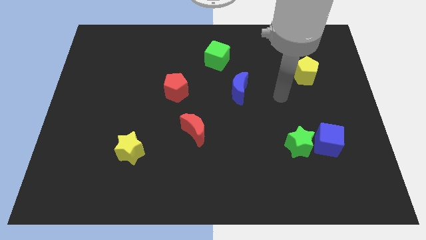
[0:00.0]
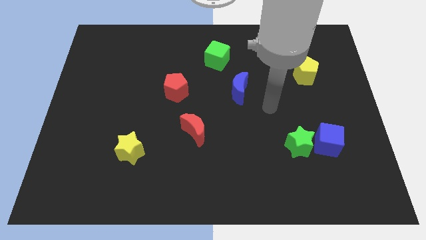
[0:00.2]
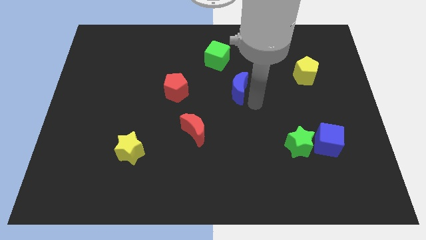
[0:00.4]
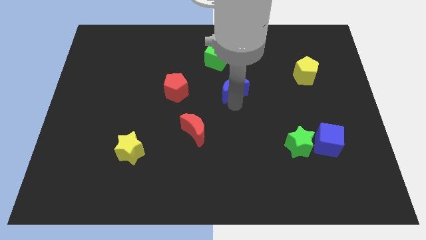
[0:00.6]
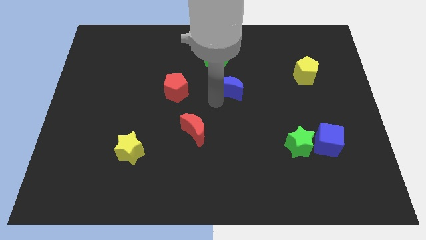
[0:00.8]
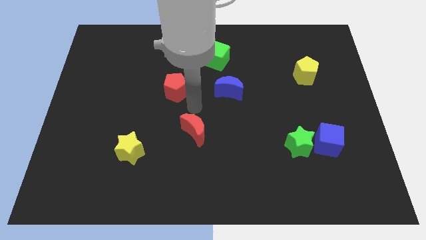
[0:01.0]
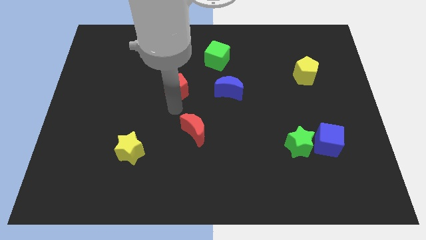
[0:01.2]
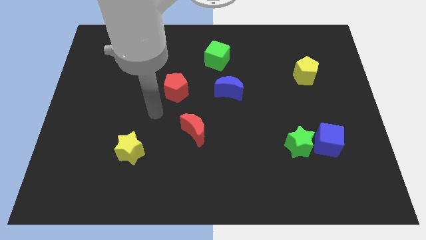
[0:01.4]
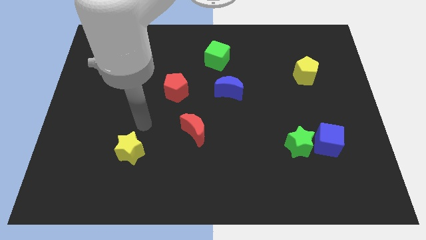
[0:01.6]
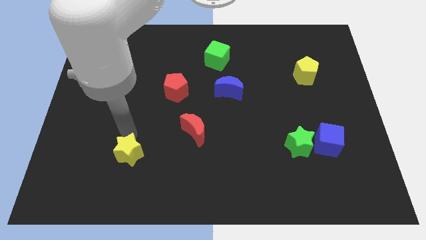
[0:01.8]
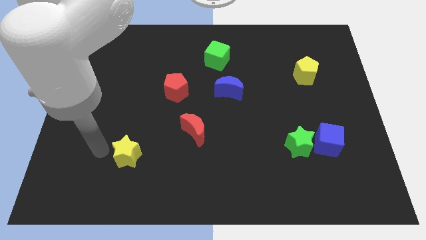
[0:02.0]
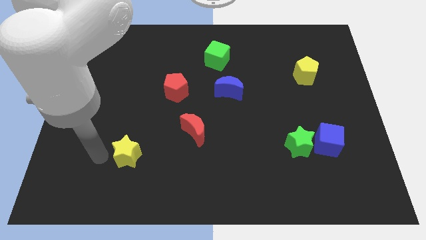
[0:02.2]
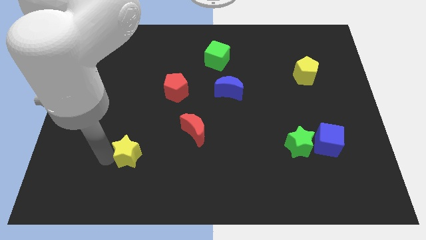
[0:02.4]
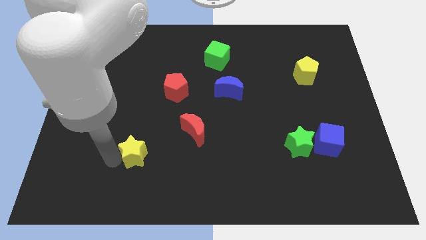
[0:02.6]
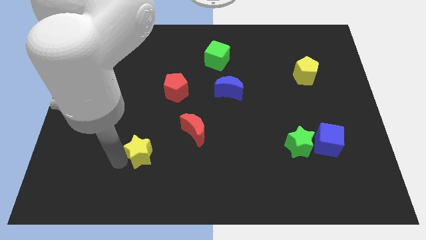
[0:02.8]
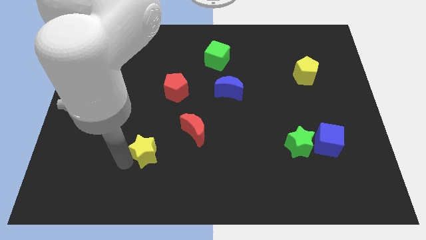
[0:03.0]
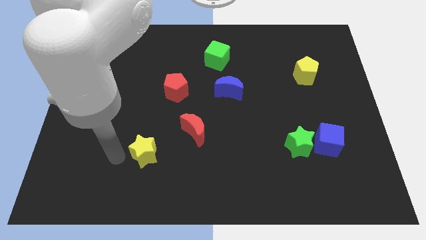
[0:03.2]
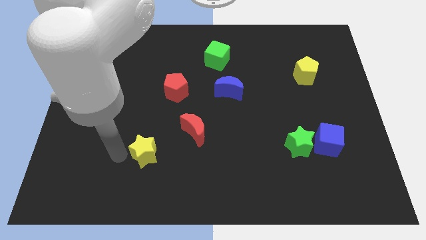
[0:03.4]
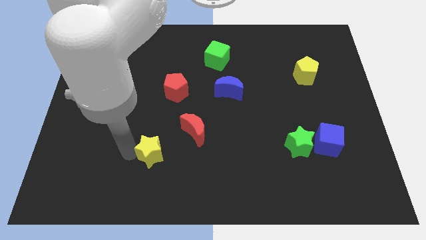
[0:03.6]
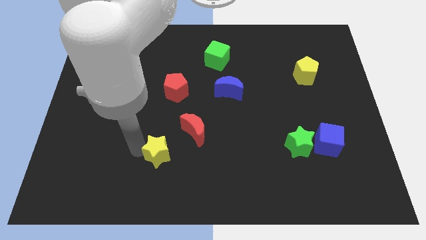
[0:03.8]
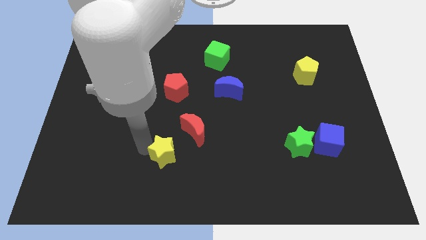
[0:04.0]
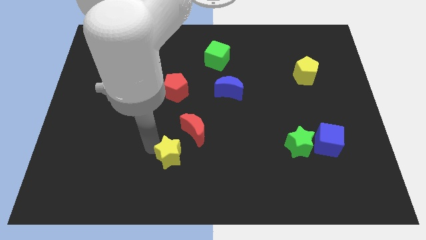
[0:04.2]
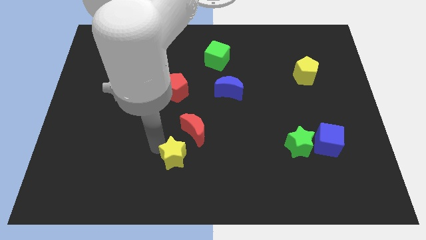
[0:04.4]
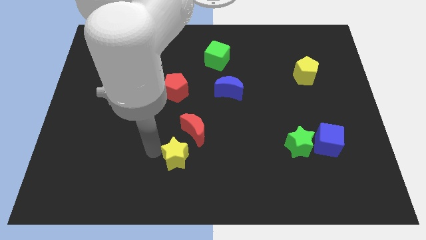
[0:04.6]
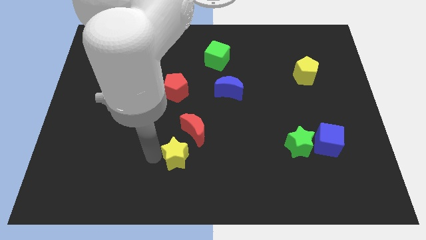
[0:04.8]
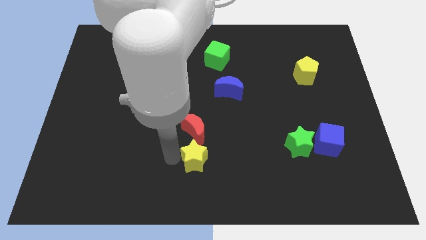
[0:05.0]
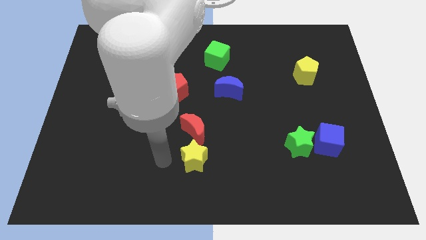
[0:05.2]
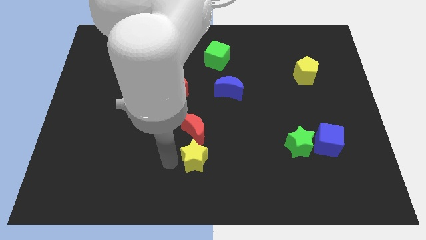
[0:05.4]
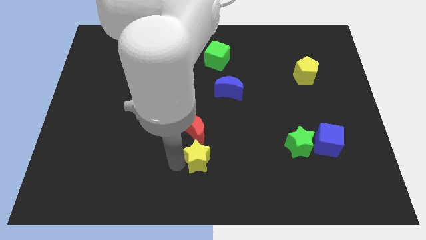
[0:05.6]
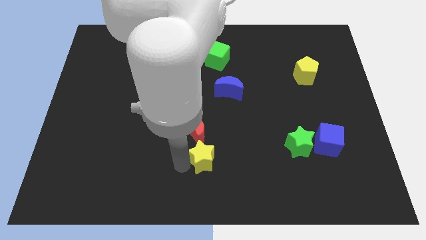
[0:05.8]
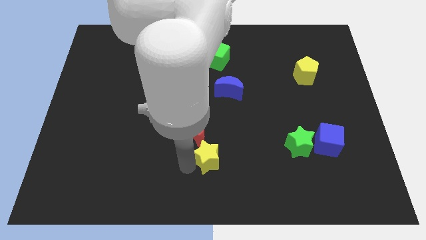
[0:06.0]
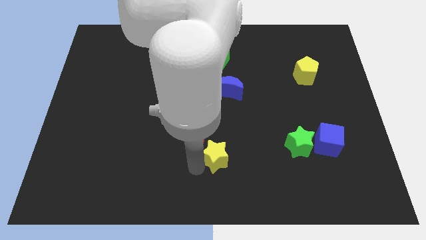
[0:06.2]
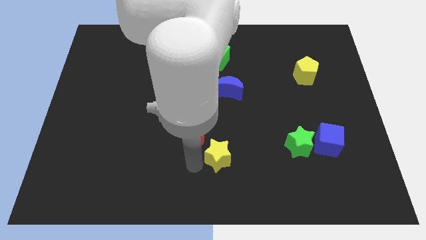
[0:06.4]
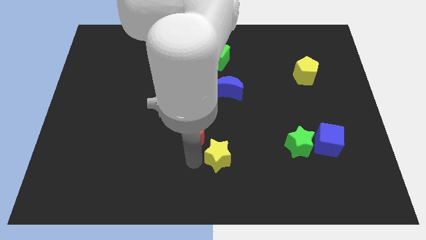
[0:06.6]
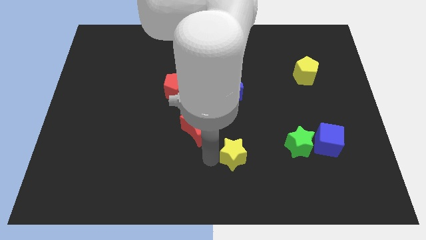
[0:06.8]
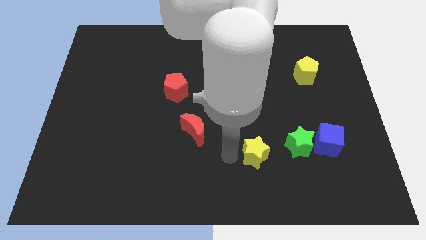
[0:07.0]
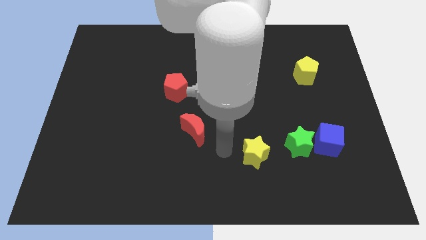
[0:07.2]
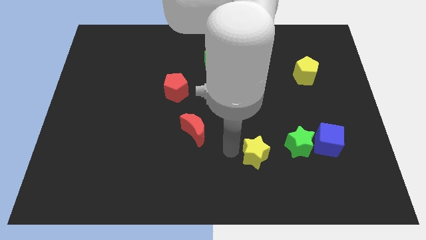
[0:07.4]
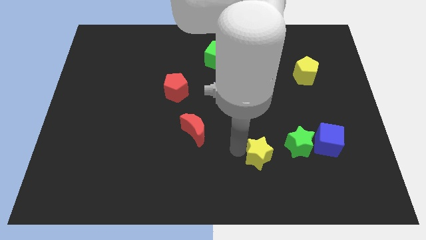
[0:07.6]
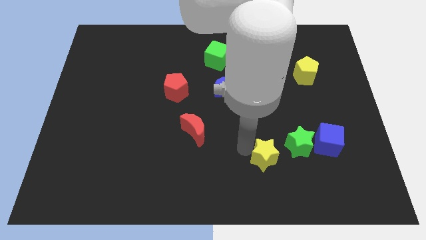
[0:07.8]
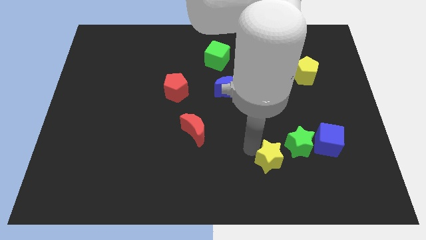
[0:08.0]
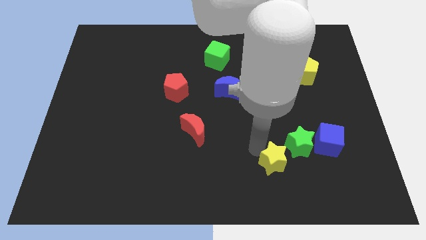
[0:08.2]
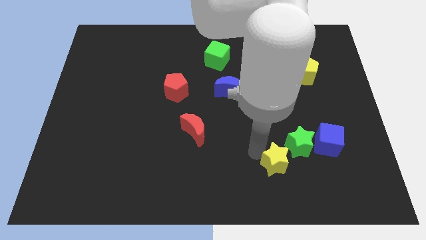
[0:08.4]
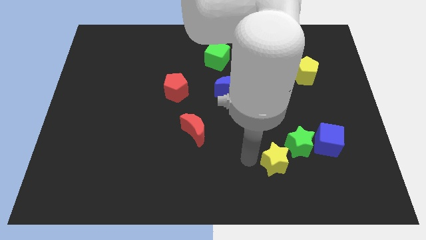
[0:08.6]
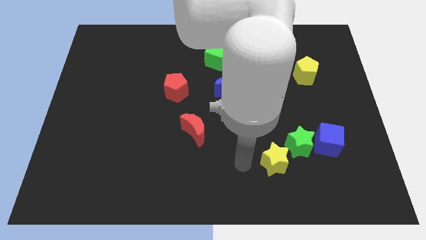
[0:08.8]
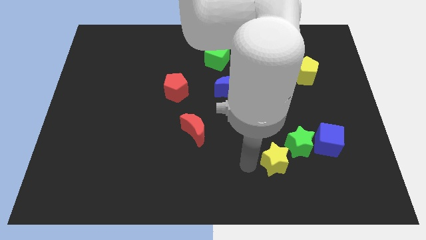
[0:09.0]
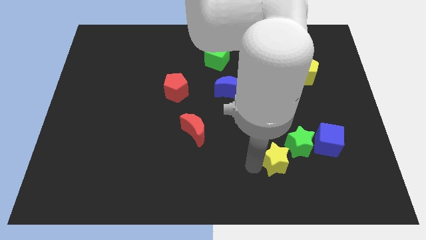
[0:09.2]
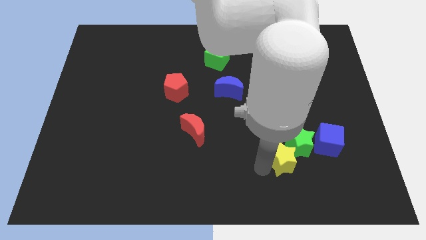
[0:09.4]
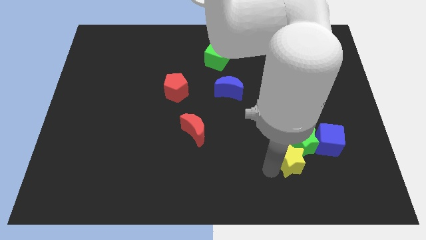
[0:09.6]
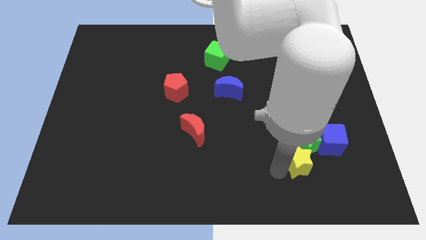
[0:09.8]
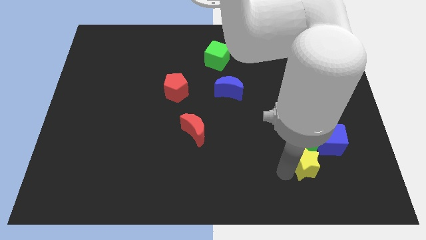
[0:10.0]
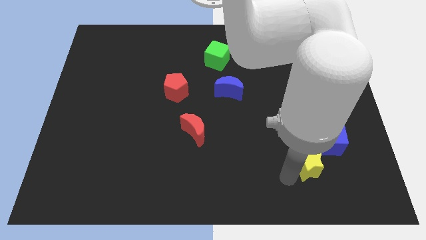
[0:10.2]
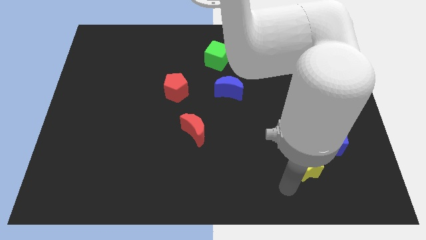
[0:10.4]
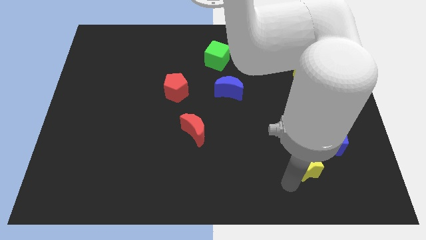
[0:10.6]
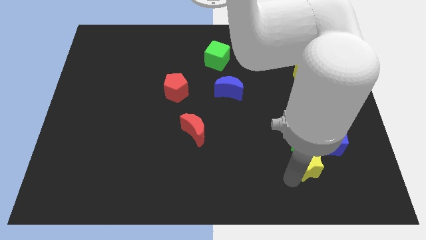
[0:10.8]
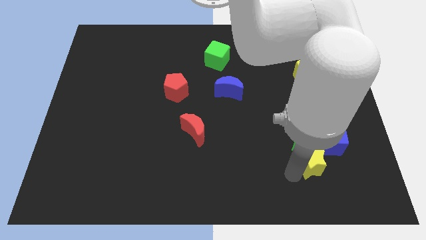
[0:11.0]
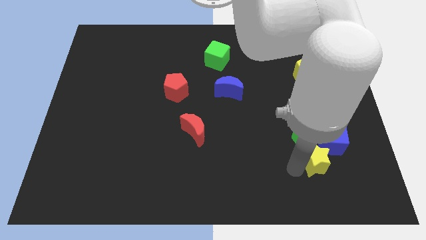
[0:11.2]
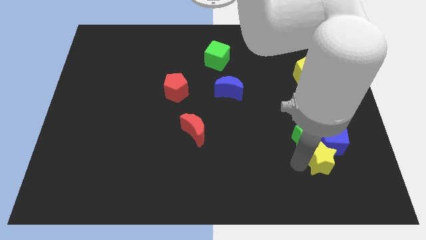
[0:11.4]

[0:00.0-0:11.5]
push the yellow star to the blue cube
